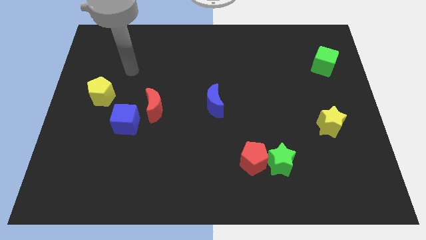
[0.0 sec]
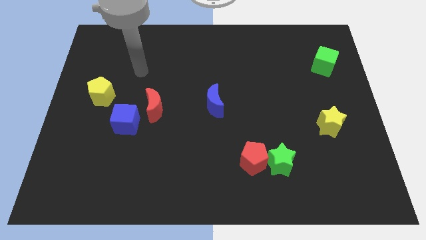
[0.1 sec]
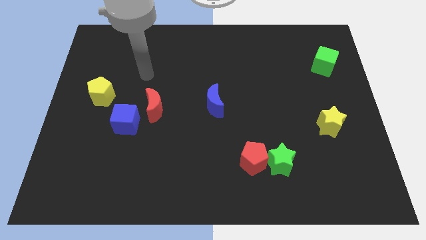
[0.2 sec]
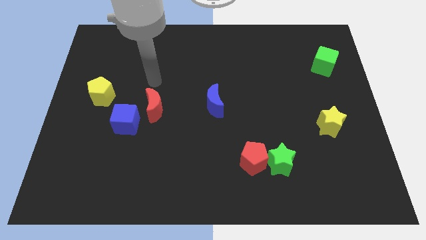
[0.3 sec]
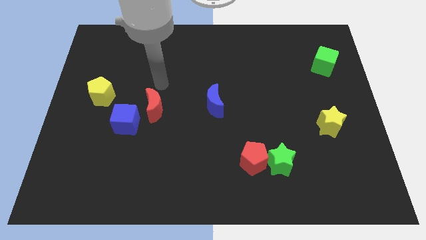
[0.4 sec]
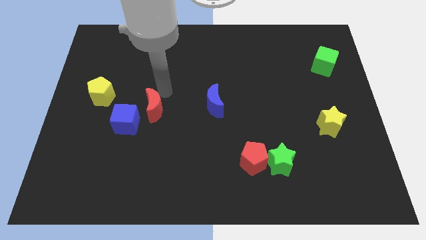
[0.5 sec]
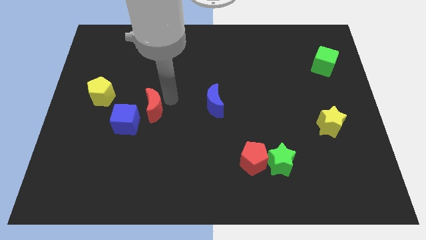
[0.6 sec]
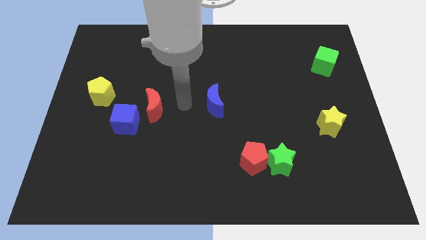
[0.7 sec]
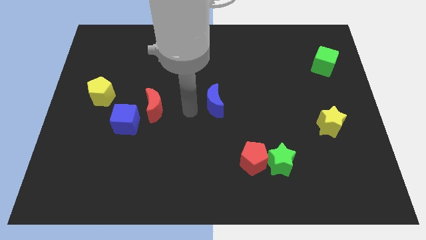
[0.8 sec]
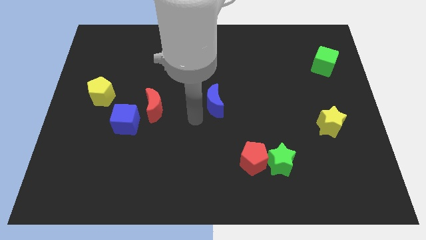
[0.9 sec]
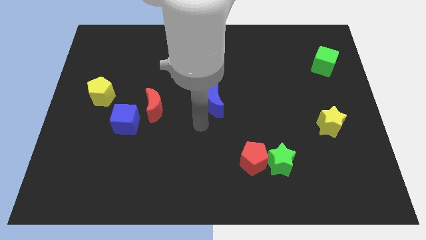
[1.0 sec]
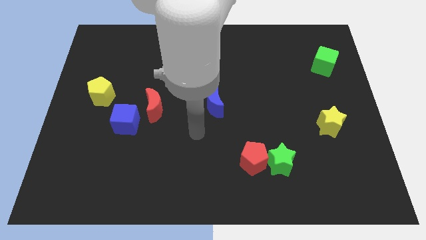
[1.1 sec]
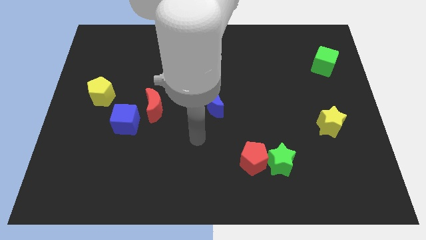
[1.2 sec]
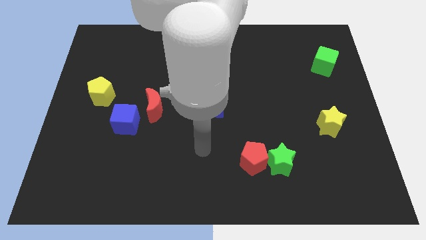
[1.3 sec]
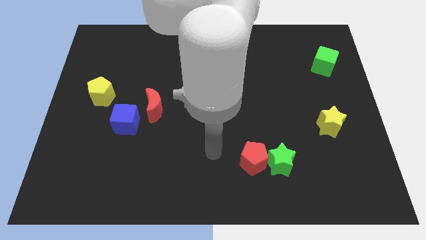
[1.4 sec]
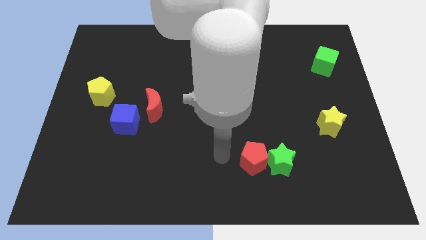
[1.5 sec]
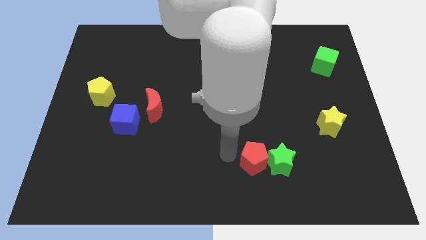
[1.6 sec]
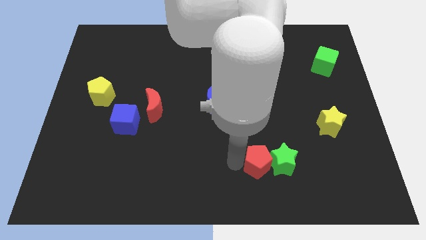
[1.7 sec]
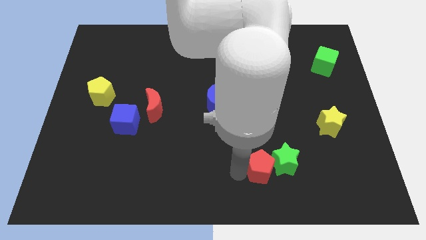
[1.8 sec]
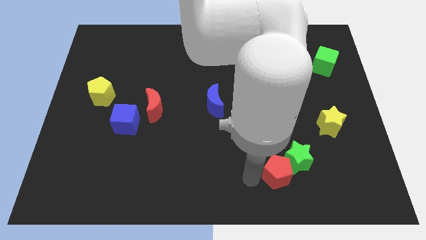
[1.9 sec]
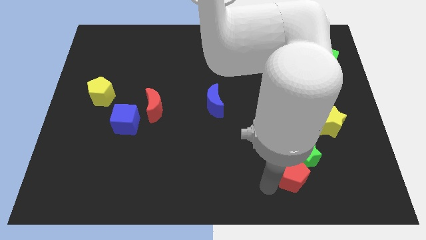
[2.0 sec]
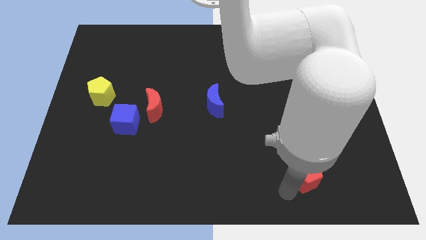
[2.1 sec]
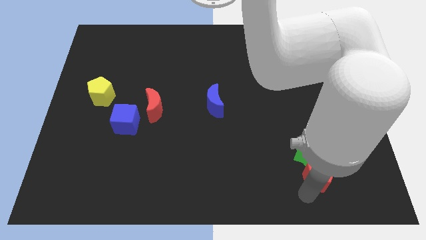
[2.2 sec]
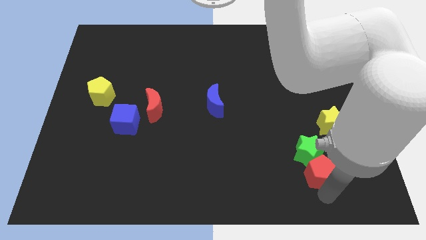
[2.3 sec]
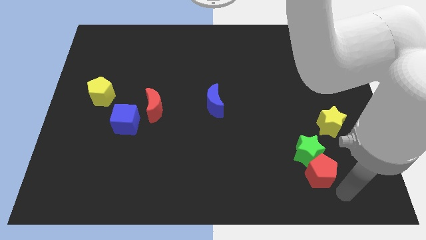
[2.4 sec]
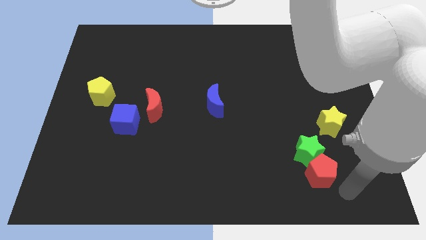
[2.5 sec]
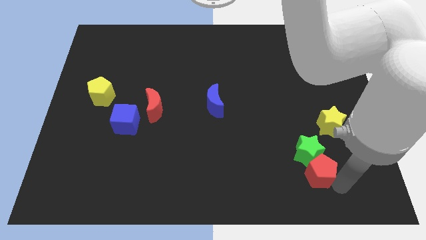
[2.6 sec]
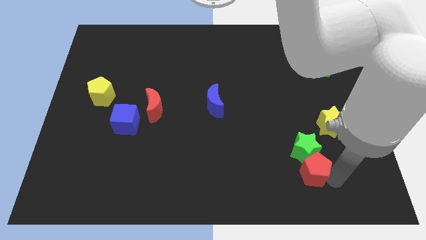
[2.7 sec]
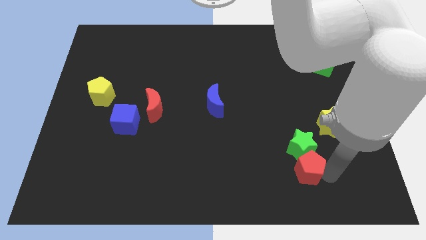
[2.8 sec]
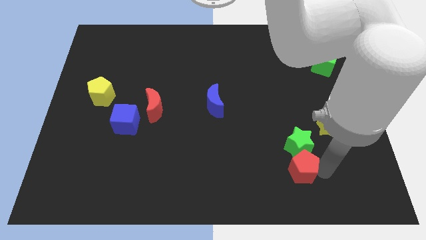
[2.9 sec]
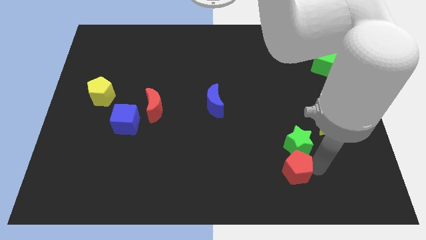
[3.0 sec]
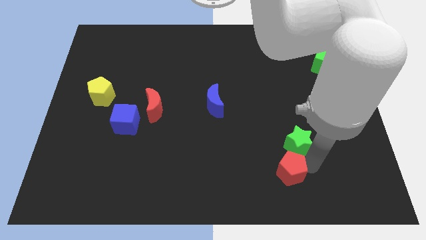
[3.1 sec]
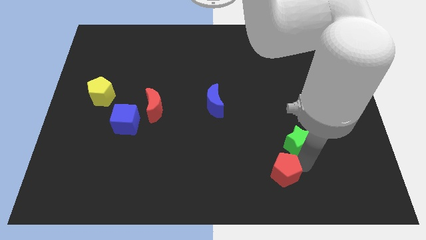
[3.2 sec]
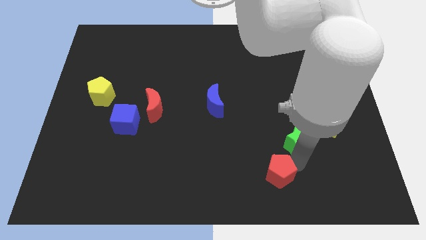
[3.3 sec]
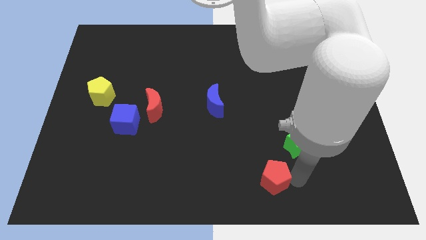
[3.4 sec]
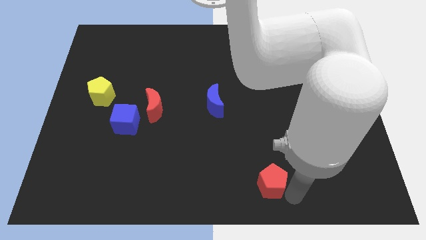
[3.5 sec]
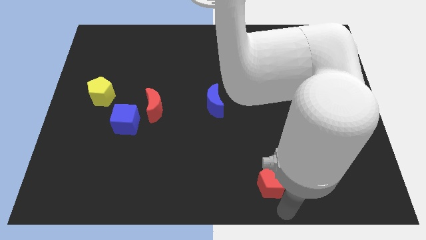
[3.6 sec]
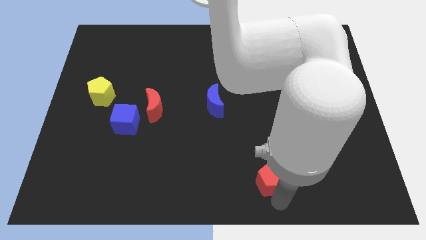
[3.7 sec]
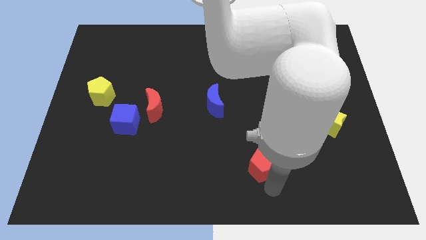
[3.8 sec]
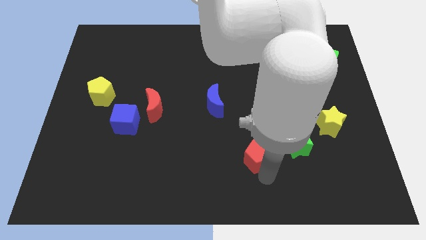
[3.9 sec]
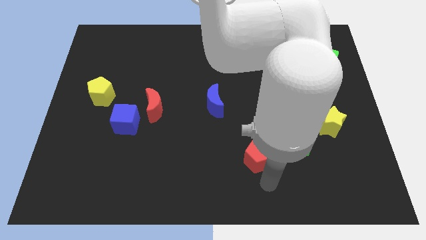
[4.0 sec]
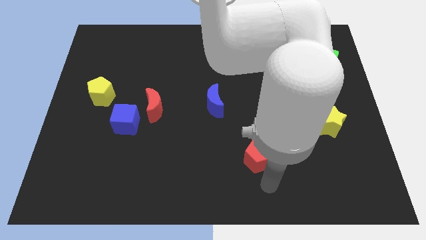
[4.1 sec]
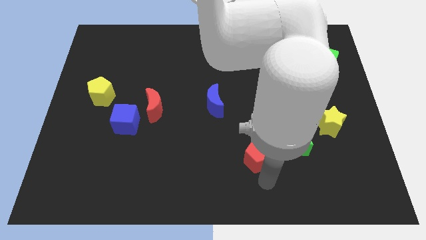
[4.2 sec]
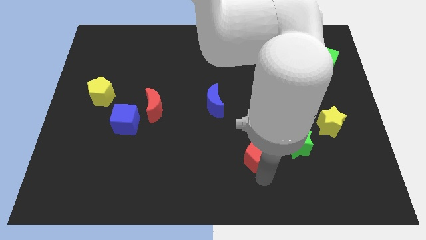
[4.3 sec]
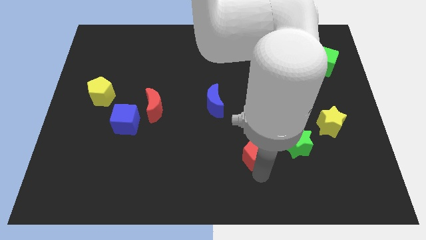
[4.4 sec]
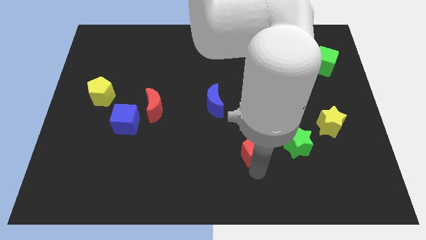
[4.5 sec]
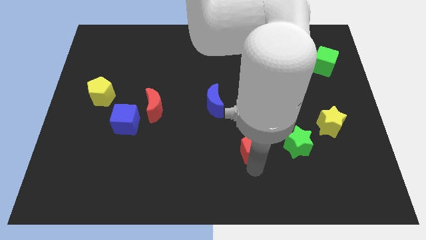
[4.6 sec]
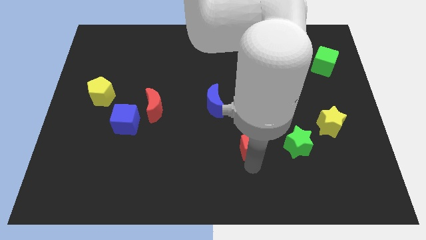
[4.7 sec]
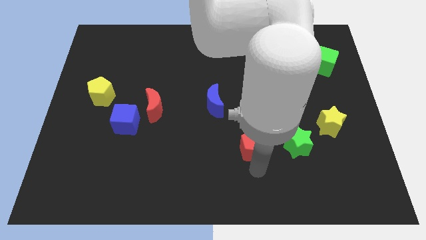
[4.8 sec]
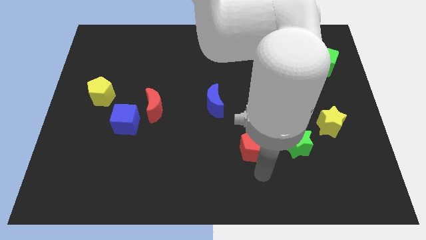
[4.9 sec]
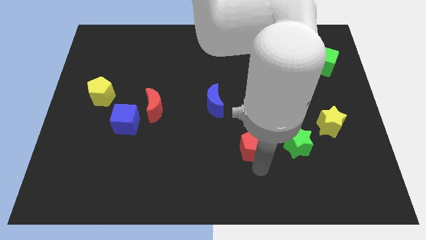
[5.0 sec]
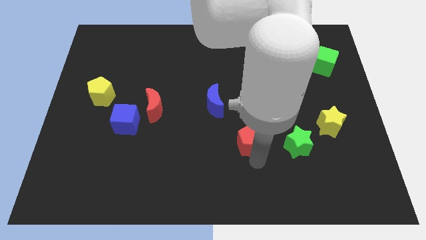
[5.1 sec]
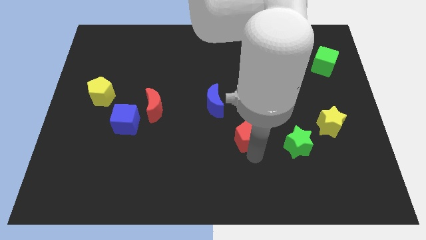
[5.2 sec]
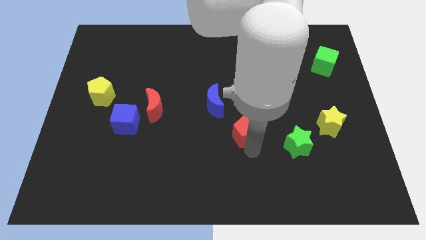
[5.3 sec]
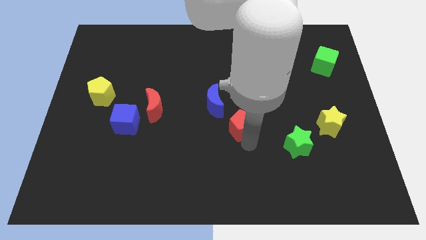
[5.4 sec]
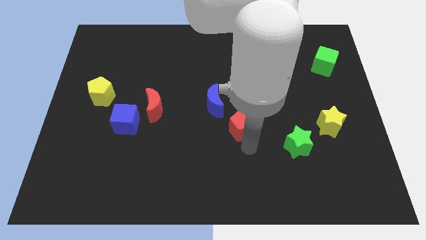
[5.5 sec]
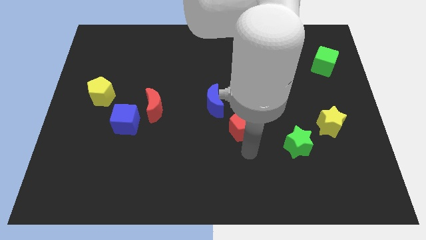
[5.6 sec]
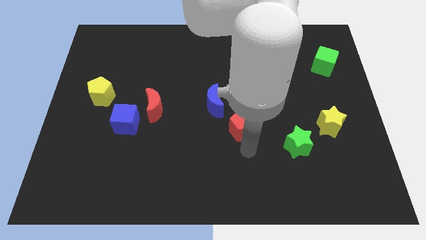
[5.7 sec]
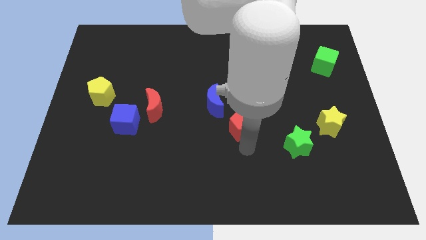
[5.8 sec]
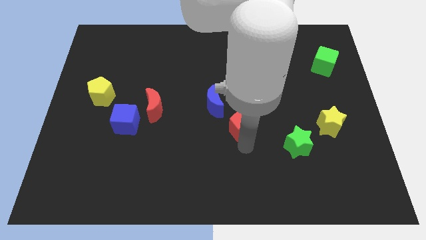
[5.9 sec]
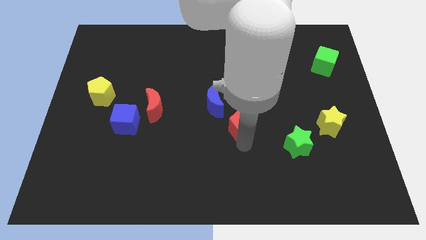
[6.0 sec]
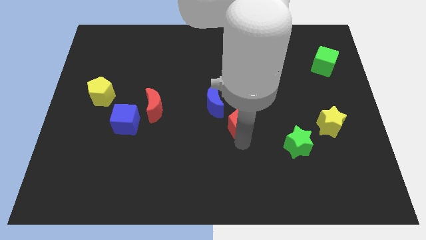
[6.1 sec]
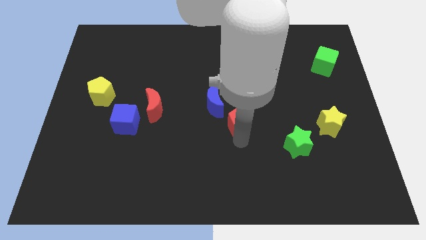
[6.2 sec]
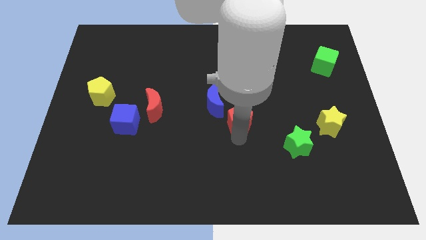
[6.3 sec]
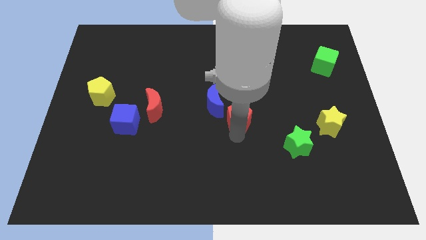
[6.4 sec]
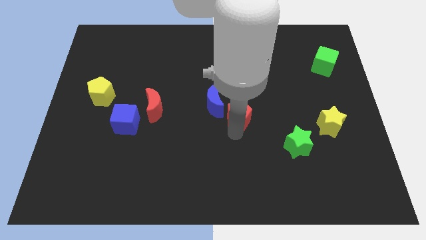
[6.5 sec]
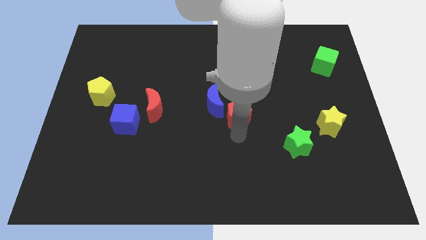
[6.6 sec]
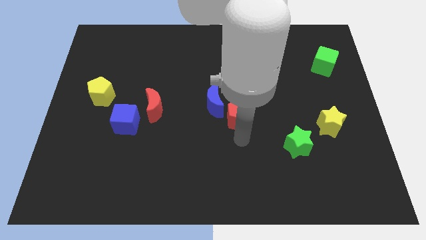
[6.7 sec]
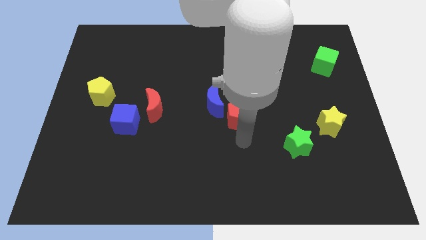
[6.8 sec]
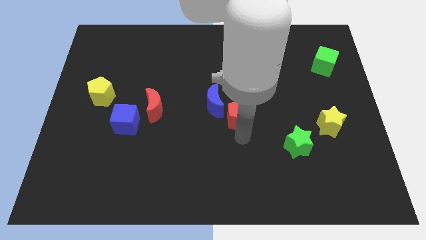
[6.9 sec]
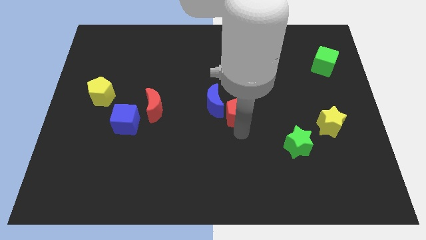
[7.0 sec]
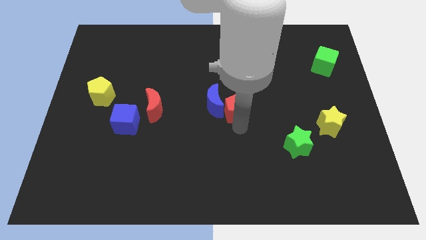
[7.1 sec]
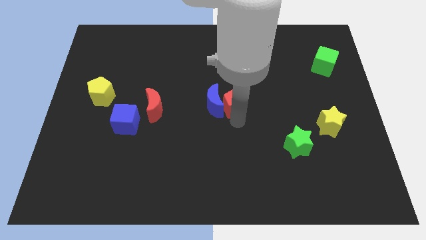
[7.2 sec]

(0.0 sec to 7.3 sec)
push the red pentagon diagonally up and to the right of the blue moon

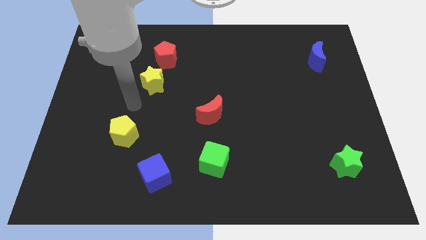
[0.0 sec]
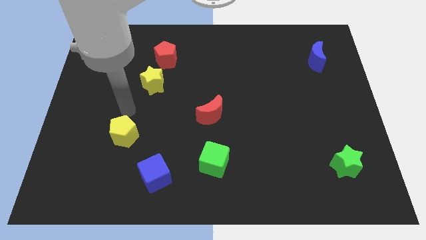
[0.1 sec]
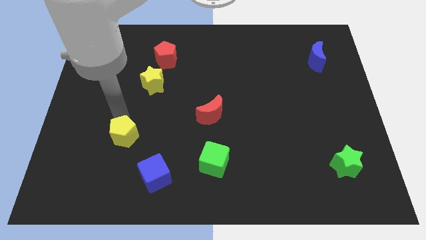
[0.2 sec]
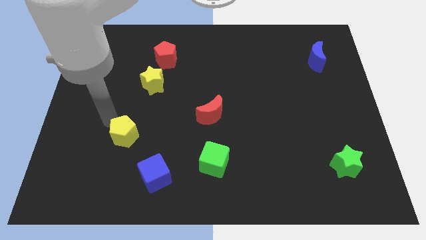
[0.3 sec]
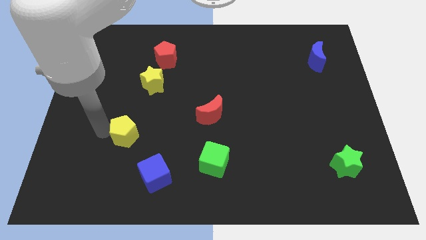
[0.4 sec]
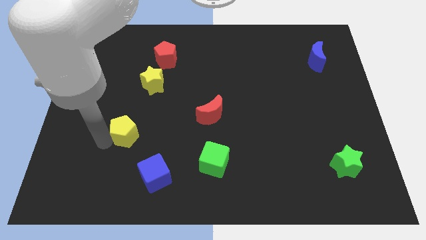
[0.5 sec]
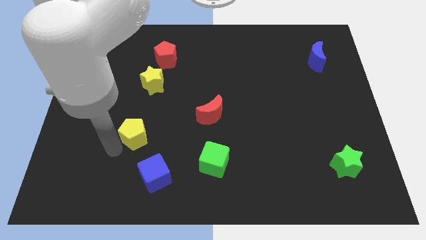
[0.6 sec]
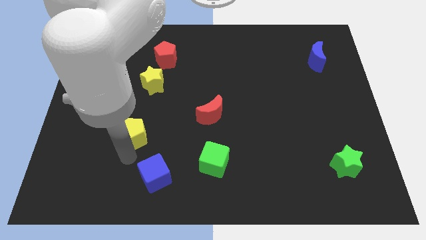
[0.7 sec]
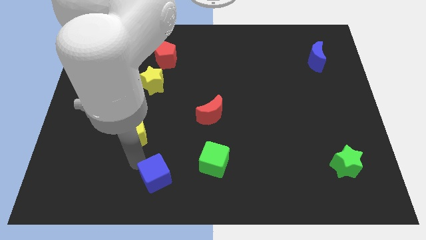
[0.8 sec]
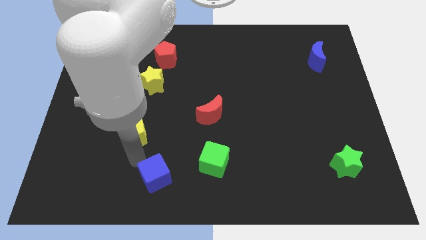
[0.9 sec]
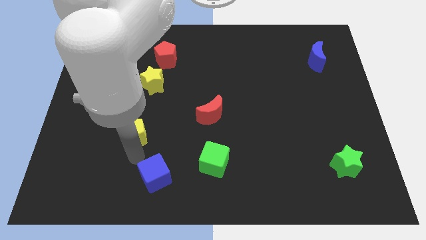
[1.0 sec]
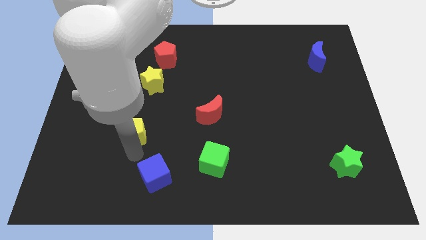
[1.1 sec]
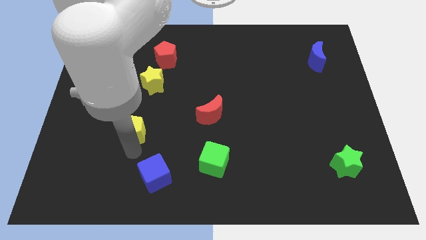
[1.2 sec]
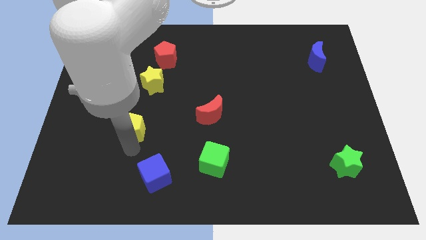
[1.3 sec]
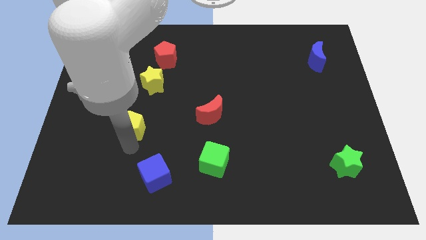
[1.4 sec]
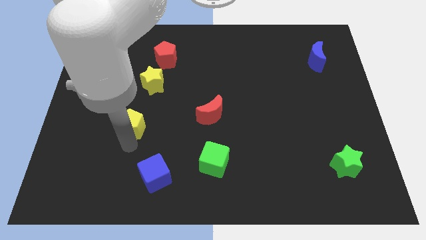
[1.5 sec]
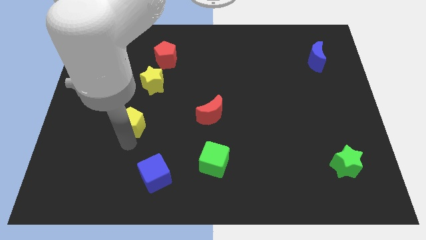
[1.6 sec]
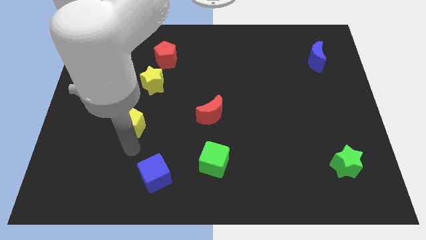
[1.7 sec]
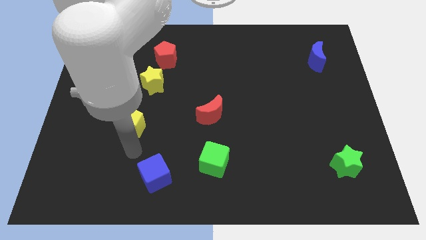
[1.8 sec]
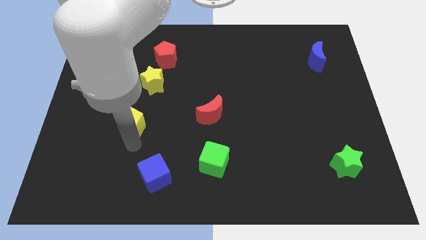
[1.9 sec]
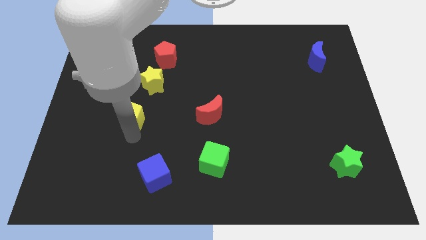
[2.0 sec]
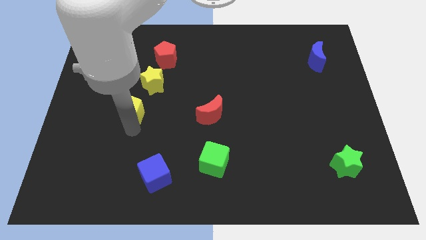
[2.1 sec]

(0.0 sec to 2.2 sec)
push the yellow pentagon diagonally down and to the left of the yellow star
